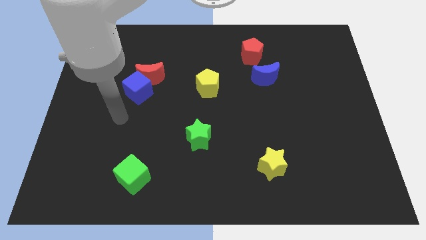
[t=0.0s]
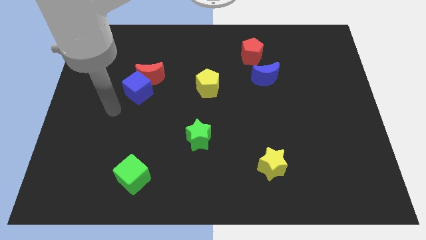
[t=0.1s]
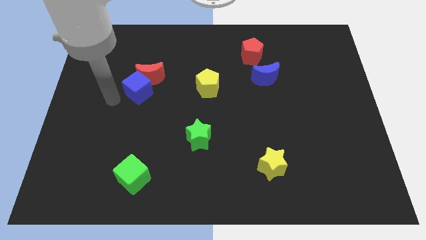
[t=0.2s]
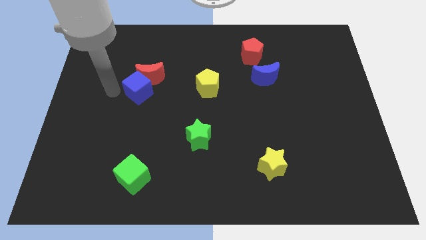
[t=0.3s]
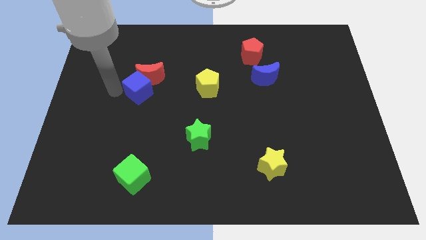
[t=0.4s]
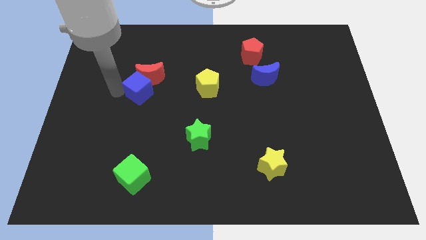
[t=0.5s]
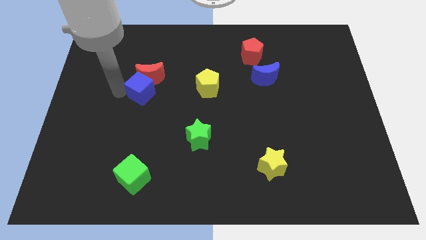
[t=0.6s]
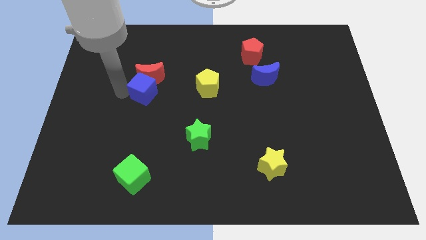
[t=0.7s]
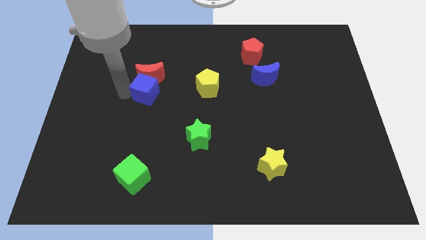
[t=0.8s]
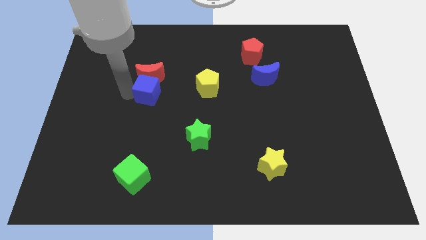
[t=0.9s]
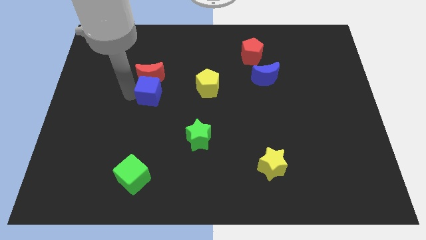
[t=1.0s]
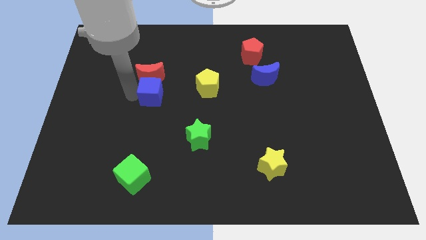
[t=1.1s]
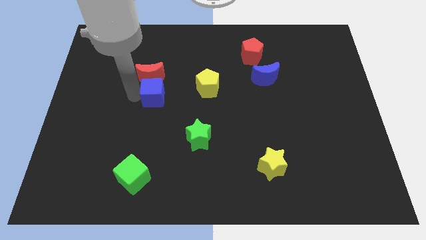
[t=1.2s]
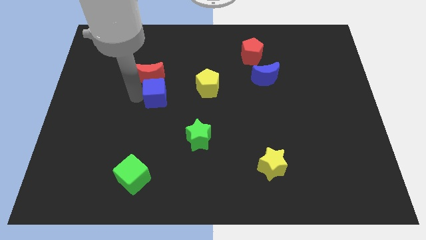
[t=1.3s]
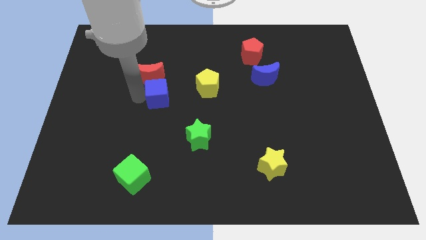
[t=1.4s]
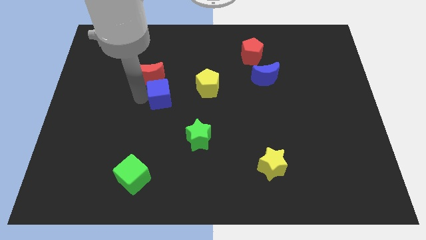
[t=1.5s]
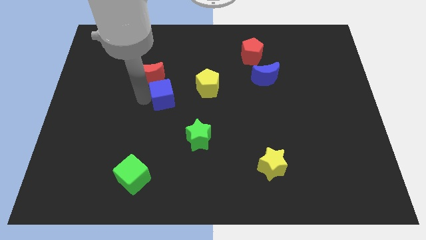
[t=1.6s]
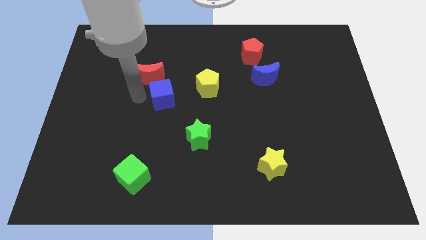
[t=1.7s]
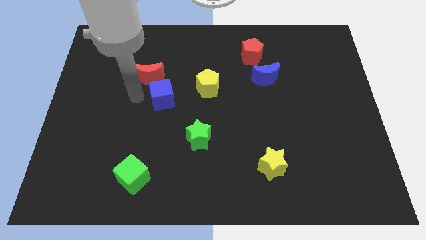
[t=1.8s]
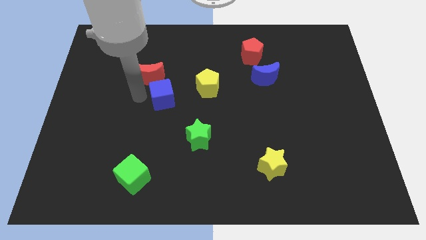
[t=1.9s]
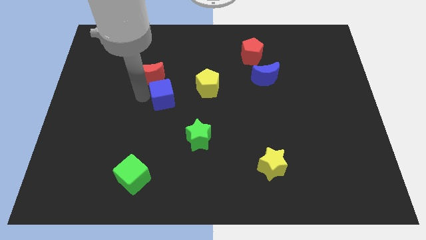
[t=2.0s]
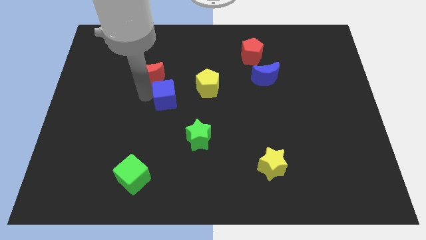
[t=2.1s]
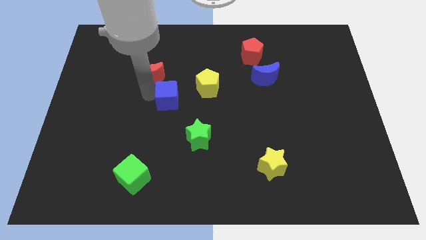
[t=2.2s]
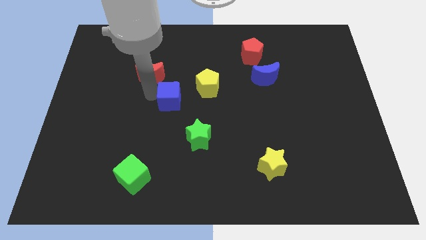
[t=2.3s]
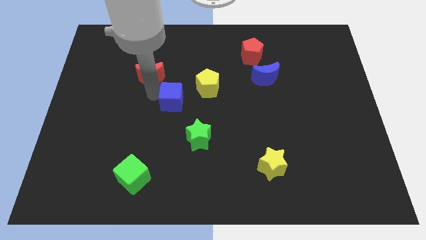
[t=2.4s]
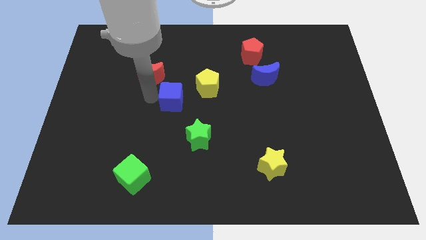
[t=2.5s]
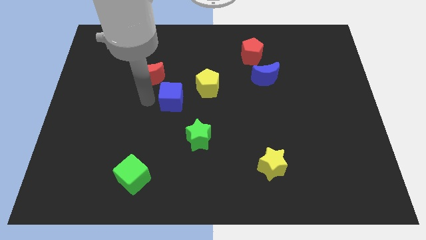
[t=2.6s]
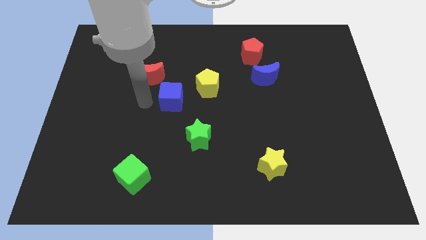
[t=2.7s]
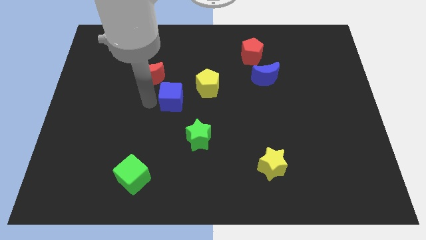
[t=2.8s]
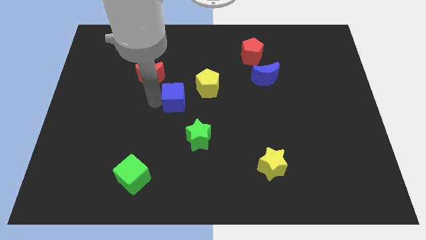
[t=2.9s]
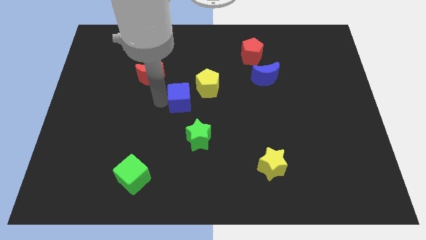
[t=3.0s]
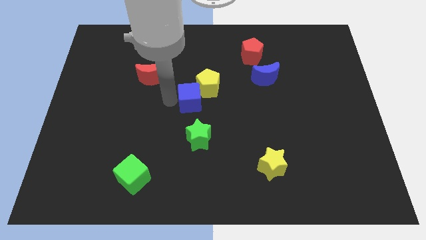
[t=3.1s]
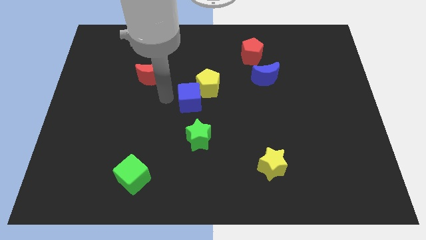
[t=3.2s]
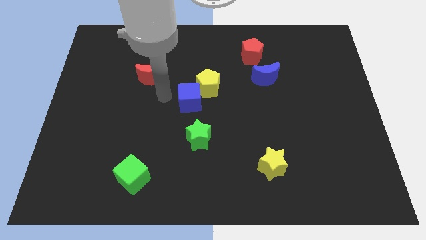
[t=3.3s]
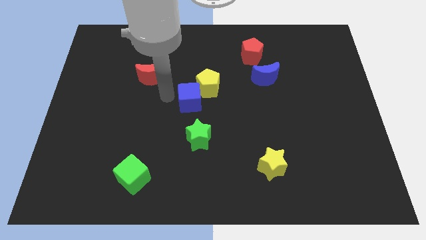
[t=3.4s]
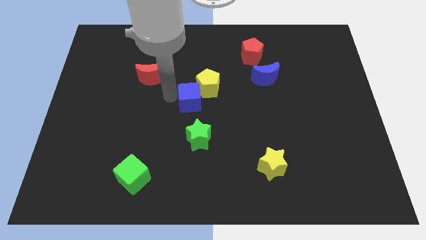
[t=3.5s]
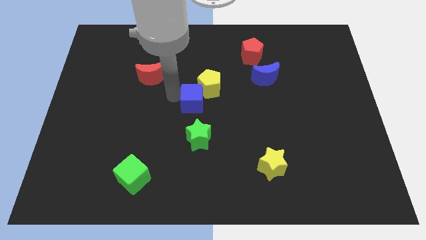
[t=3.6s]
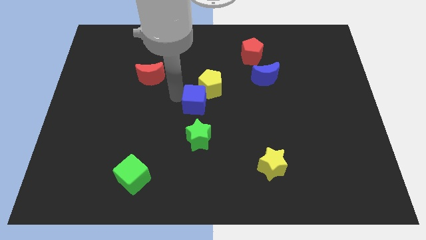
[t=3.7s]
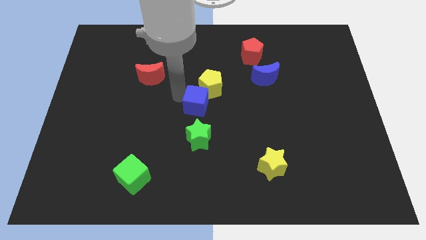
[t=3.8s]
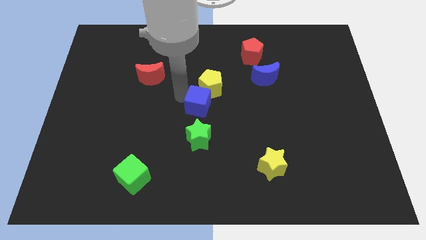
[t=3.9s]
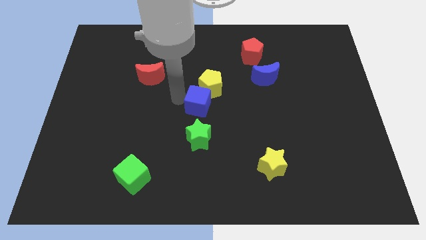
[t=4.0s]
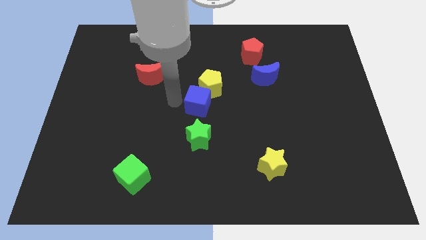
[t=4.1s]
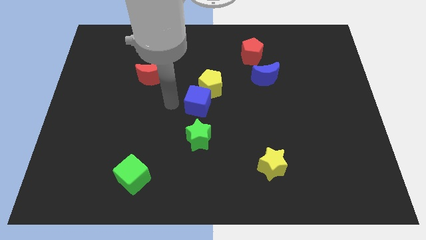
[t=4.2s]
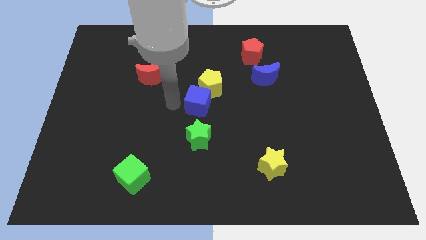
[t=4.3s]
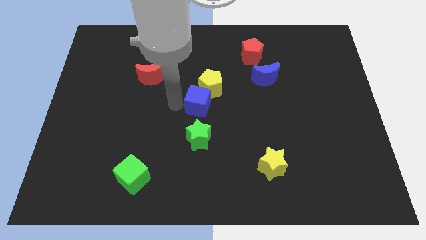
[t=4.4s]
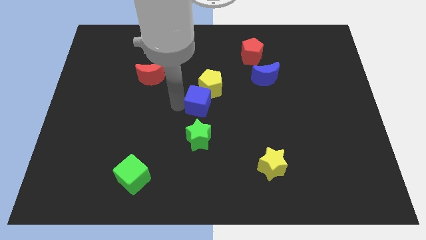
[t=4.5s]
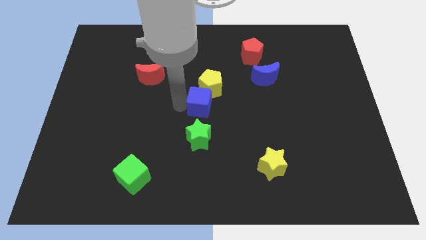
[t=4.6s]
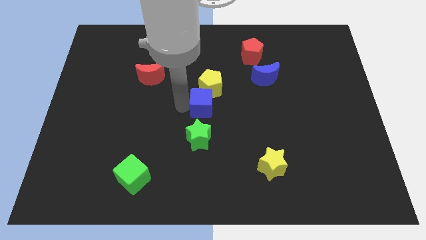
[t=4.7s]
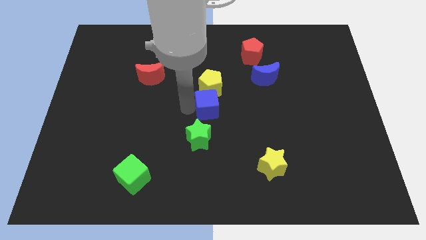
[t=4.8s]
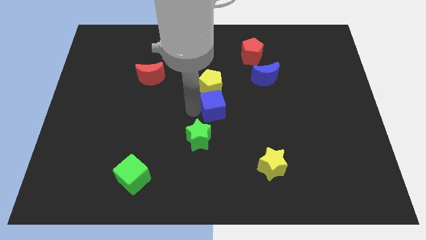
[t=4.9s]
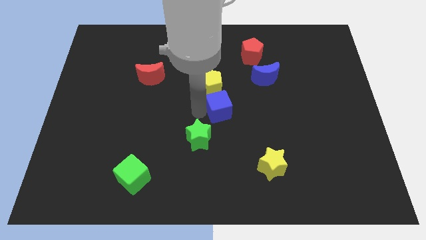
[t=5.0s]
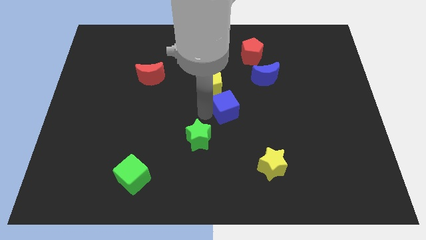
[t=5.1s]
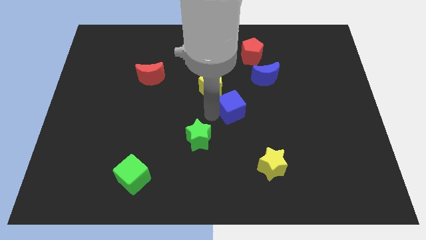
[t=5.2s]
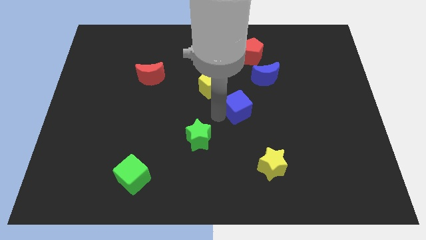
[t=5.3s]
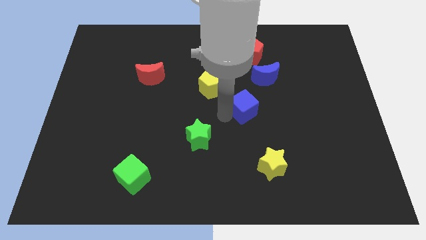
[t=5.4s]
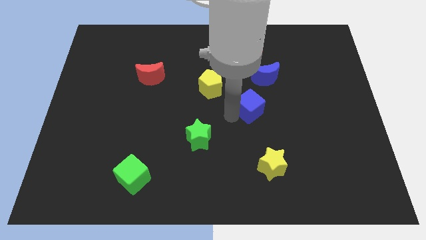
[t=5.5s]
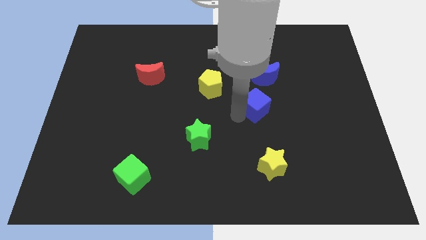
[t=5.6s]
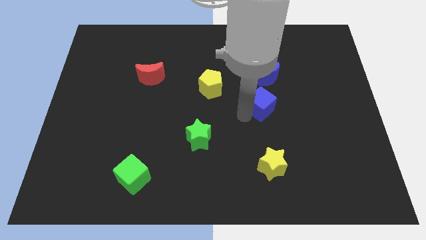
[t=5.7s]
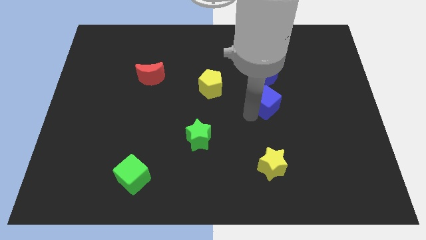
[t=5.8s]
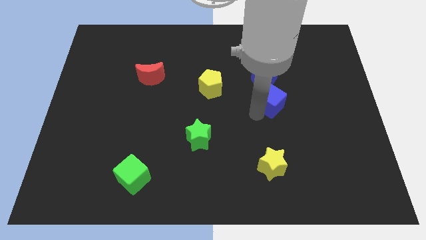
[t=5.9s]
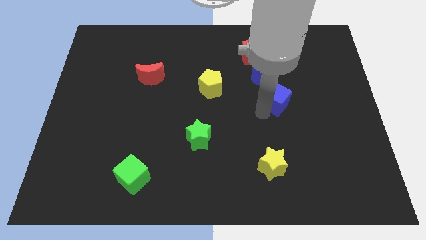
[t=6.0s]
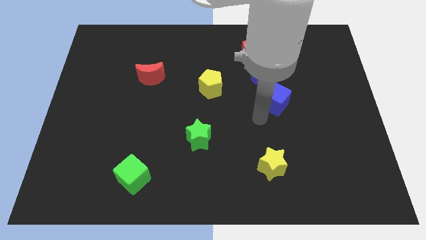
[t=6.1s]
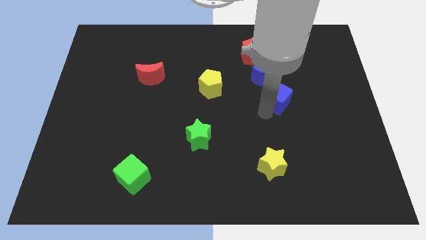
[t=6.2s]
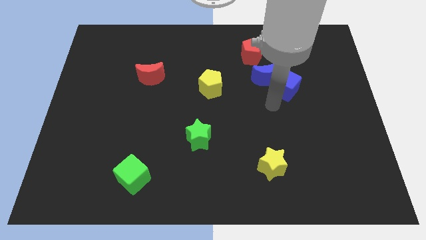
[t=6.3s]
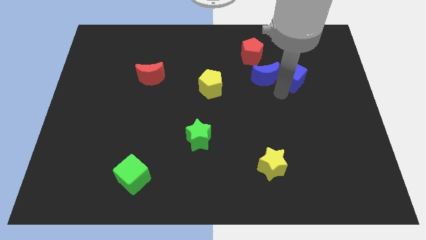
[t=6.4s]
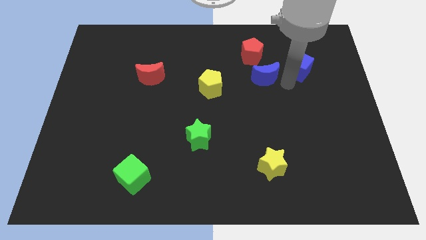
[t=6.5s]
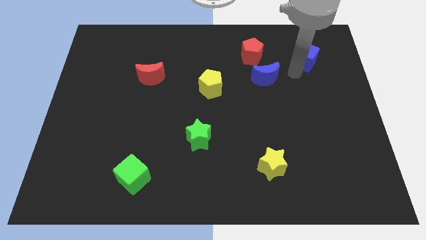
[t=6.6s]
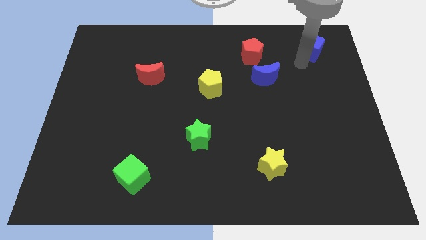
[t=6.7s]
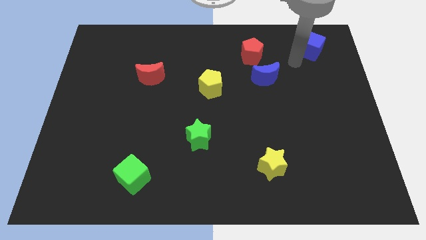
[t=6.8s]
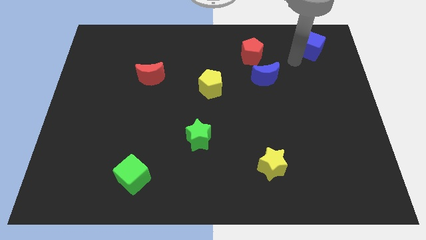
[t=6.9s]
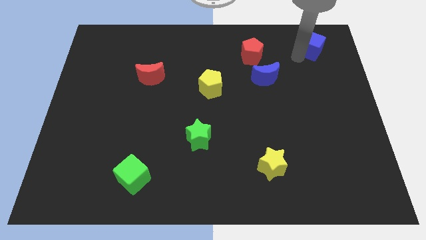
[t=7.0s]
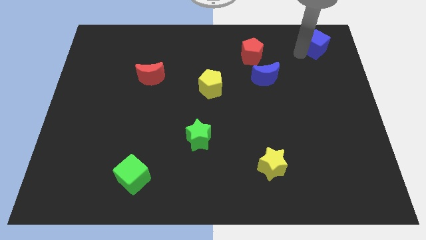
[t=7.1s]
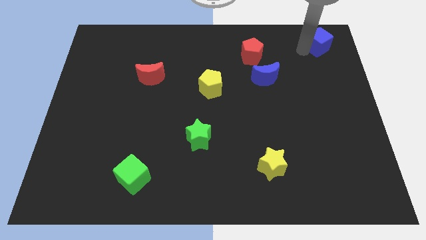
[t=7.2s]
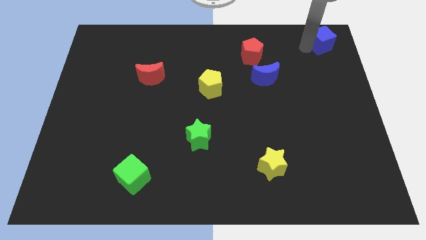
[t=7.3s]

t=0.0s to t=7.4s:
slide the blue cube to the top right corner

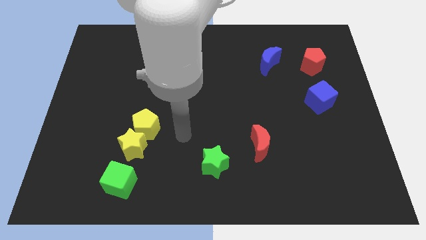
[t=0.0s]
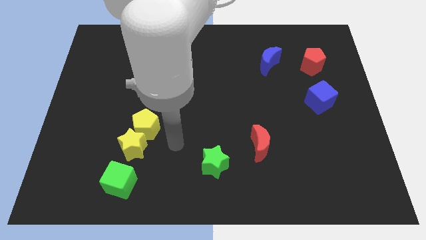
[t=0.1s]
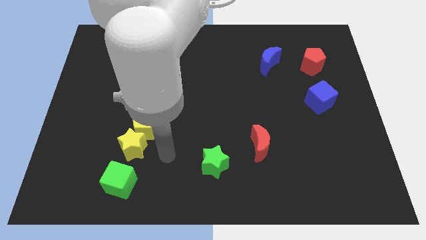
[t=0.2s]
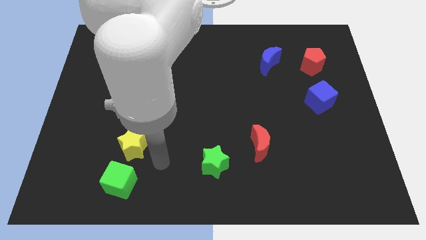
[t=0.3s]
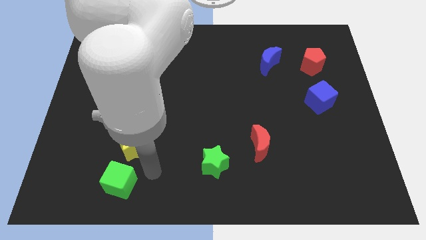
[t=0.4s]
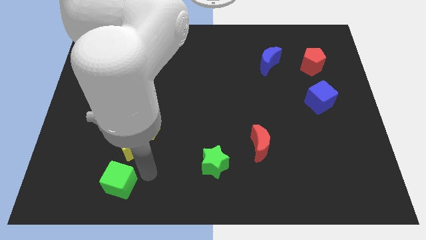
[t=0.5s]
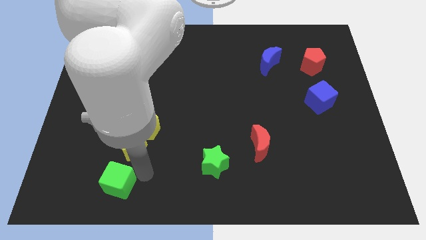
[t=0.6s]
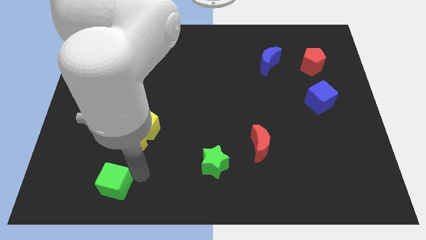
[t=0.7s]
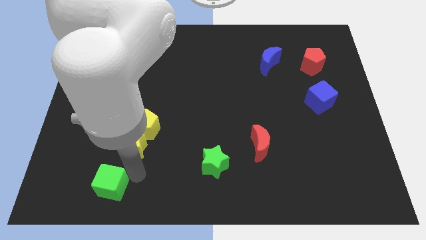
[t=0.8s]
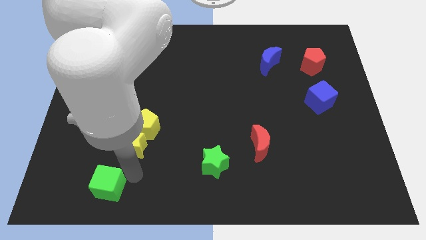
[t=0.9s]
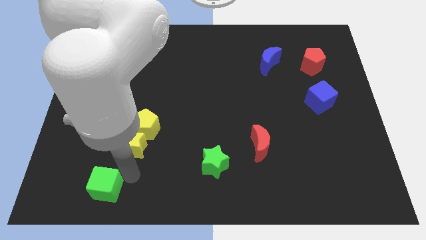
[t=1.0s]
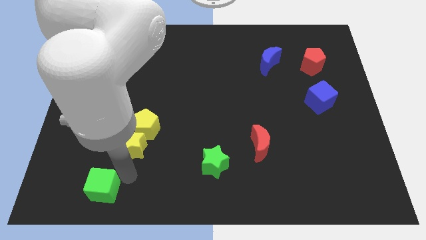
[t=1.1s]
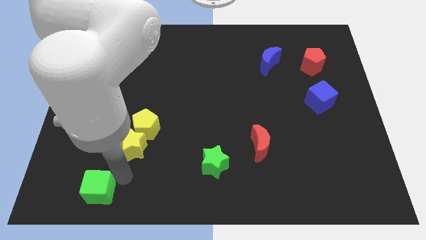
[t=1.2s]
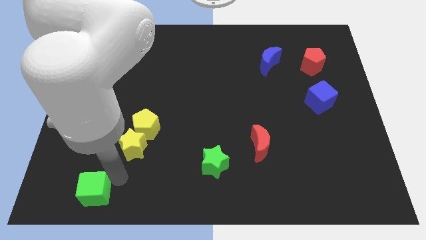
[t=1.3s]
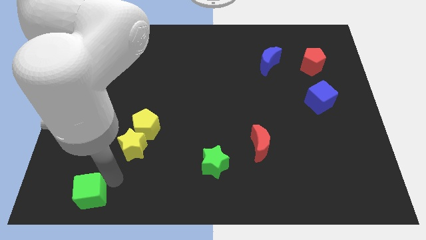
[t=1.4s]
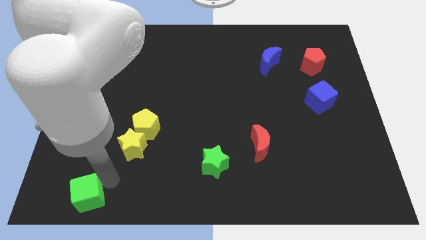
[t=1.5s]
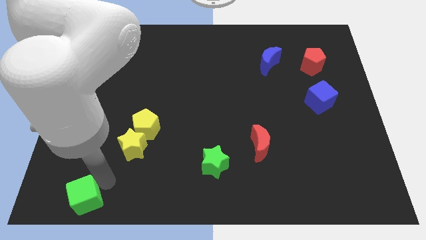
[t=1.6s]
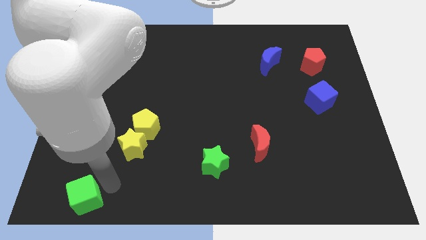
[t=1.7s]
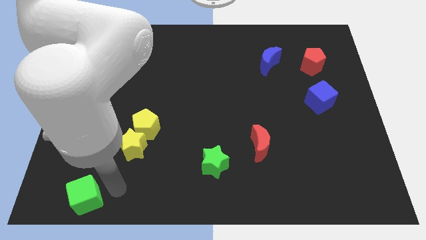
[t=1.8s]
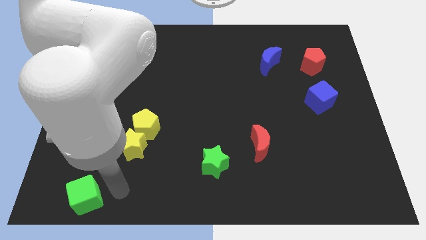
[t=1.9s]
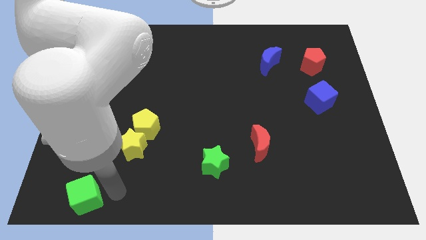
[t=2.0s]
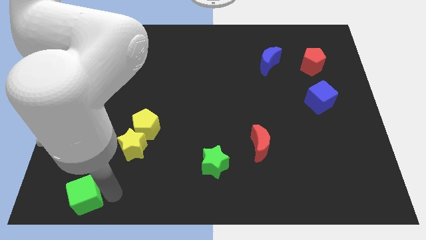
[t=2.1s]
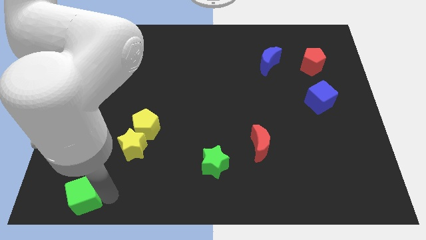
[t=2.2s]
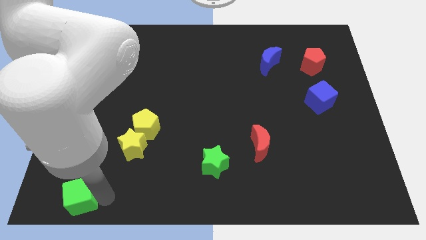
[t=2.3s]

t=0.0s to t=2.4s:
move the green cube to the bottom left
